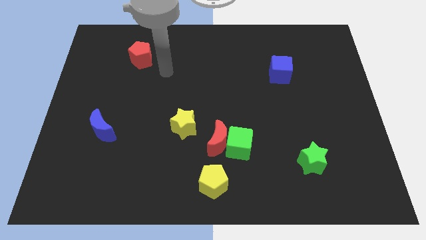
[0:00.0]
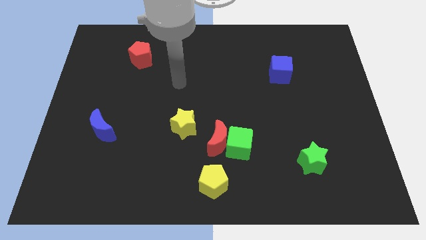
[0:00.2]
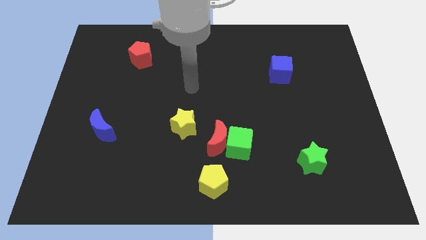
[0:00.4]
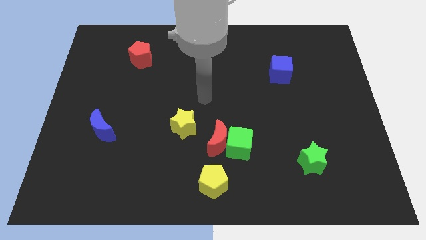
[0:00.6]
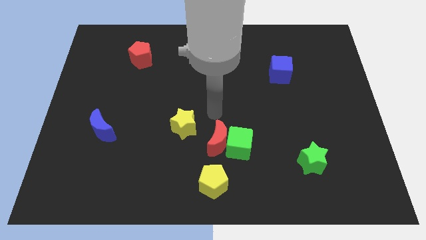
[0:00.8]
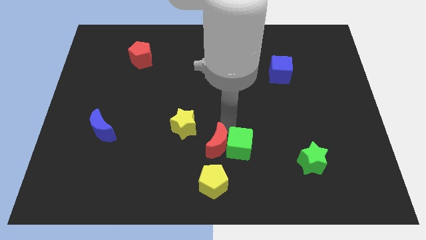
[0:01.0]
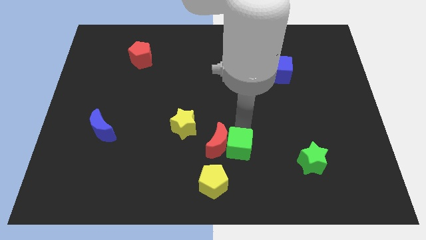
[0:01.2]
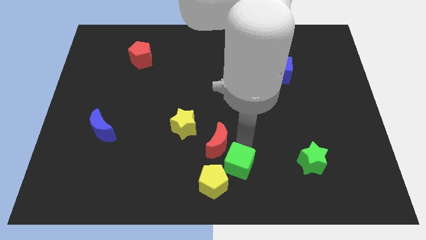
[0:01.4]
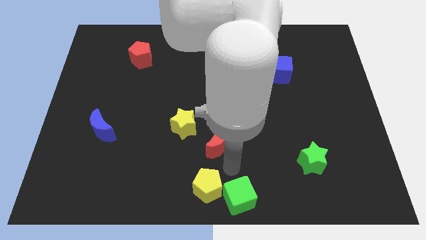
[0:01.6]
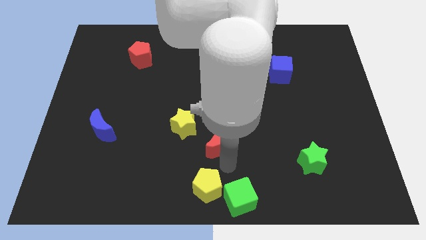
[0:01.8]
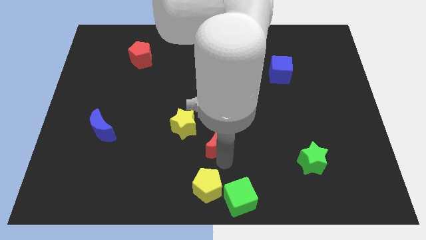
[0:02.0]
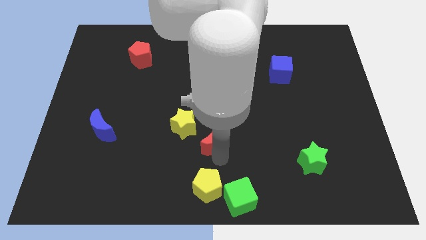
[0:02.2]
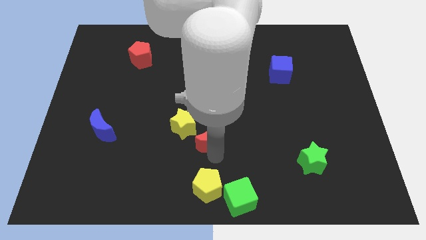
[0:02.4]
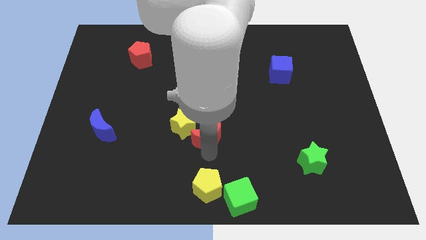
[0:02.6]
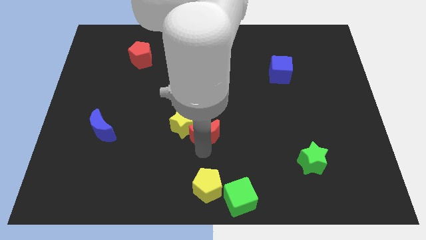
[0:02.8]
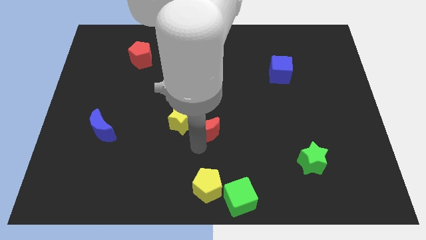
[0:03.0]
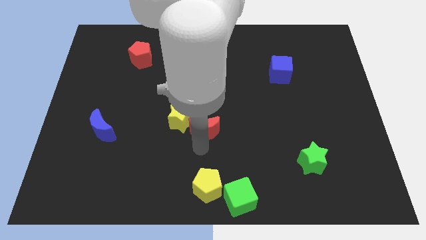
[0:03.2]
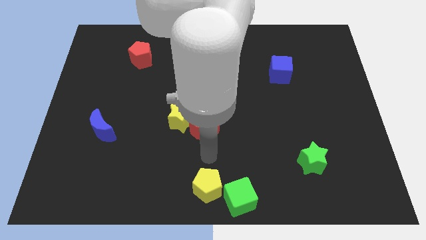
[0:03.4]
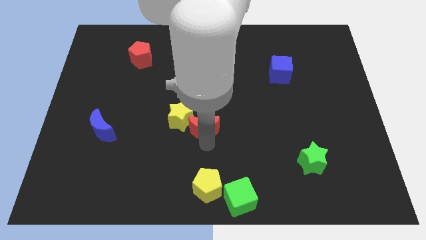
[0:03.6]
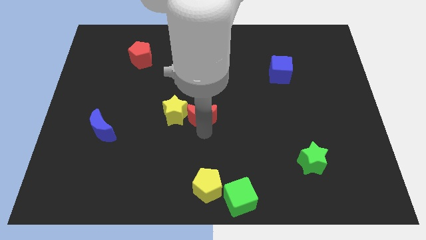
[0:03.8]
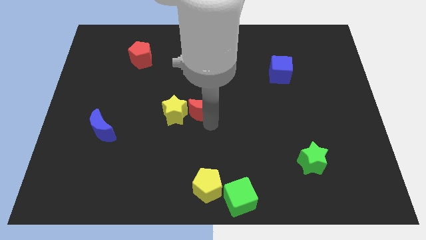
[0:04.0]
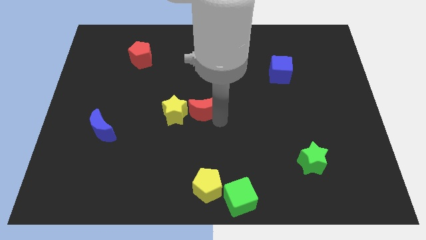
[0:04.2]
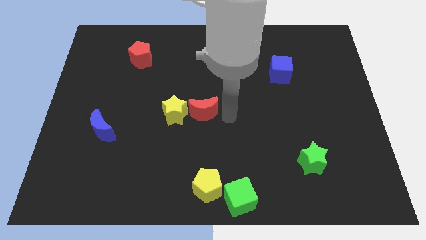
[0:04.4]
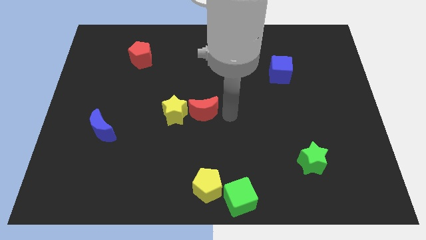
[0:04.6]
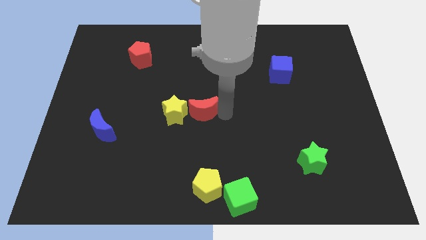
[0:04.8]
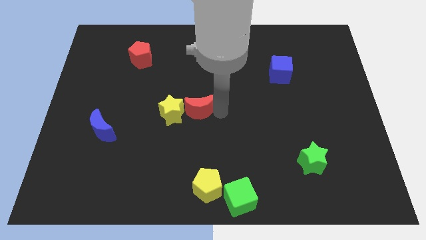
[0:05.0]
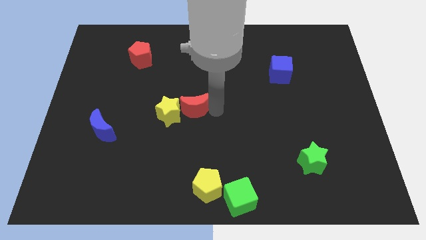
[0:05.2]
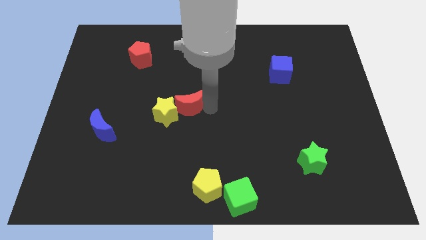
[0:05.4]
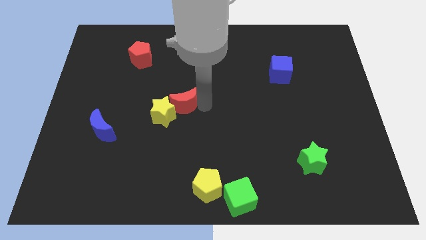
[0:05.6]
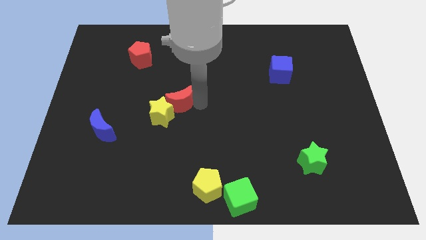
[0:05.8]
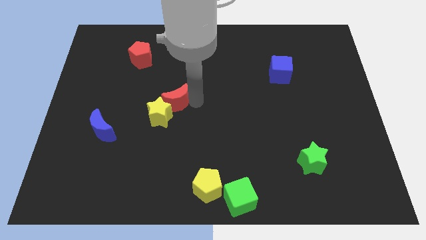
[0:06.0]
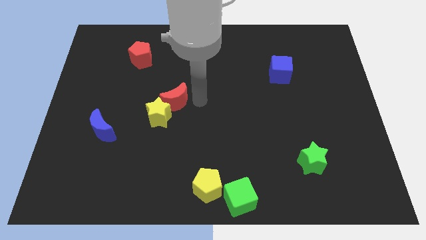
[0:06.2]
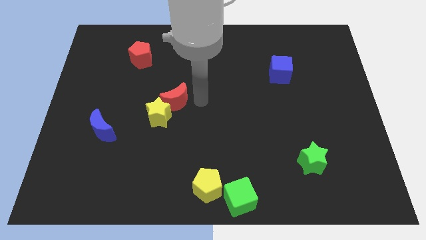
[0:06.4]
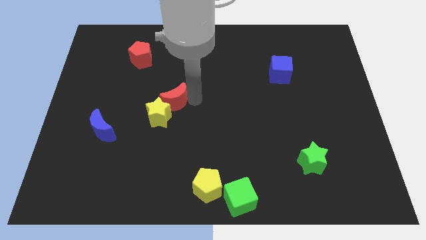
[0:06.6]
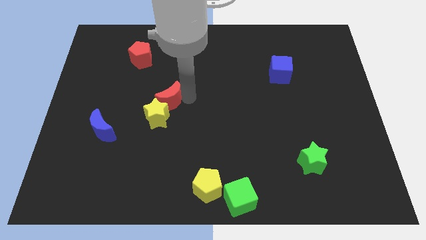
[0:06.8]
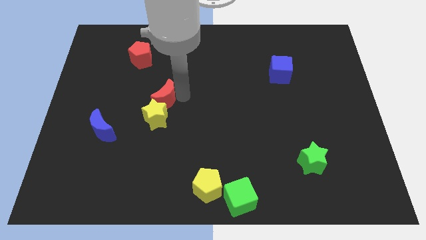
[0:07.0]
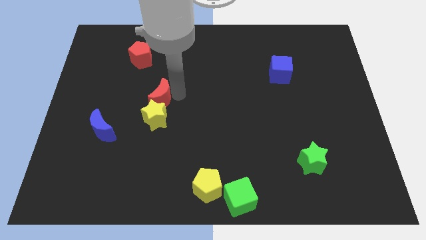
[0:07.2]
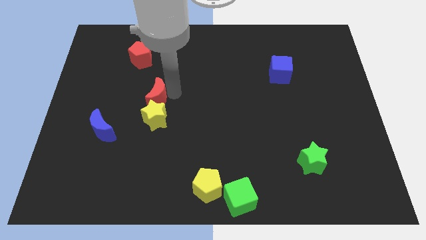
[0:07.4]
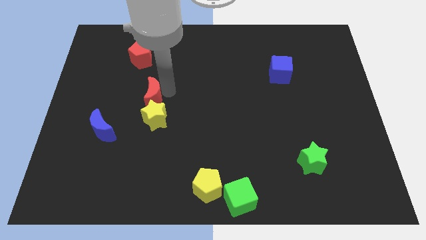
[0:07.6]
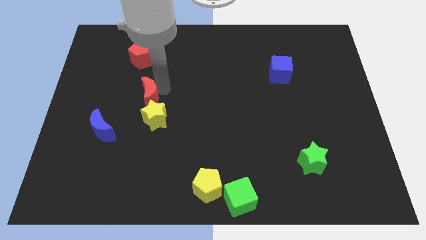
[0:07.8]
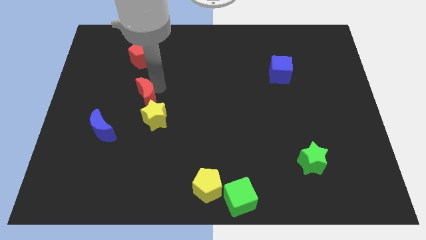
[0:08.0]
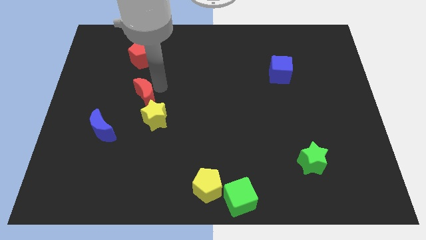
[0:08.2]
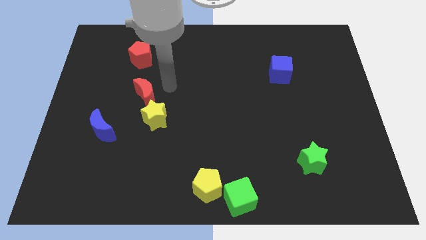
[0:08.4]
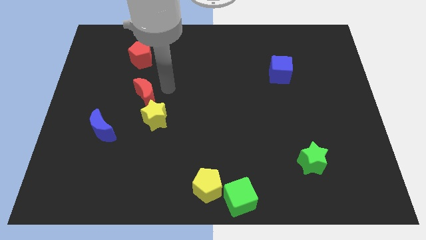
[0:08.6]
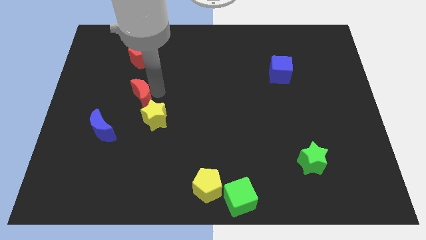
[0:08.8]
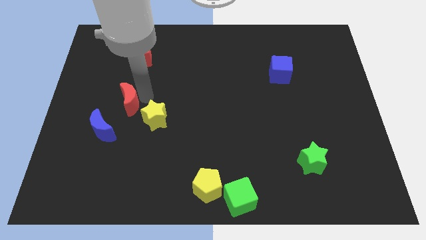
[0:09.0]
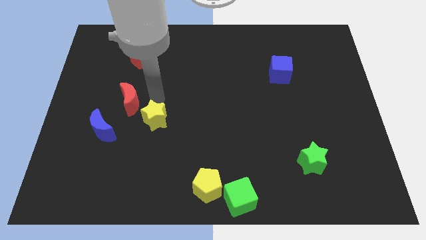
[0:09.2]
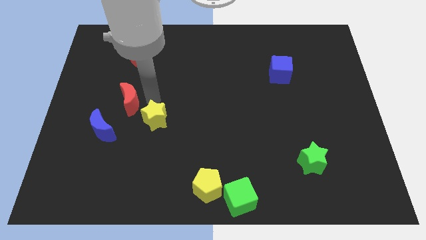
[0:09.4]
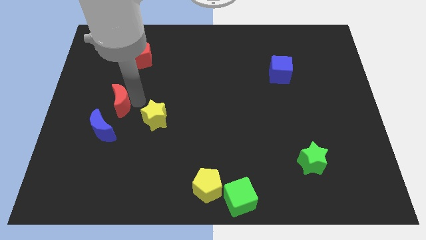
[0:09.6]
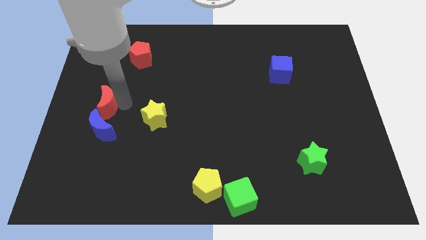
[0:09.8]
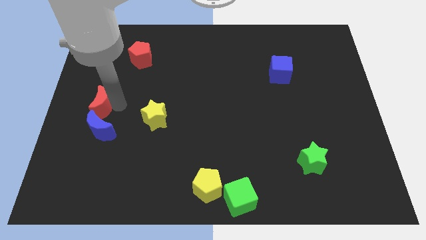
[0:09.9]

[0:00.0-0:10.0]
push the red moon to the center left

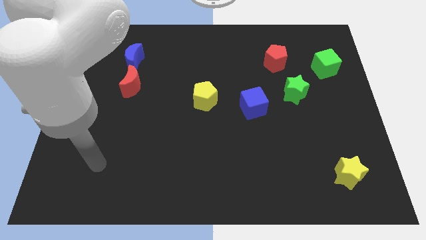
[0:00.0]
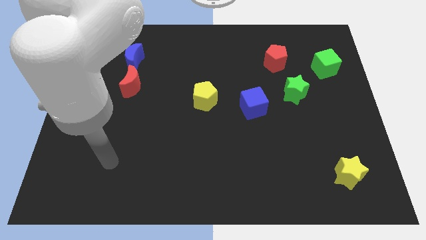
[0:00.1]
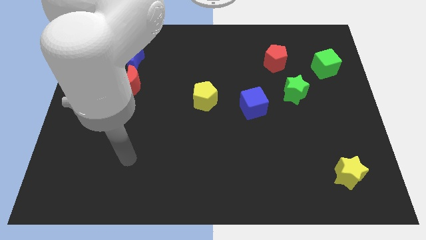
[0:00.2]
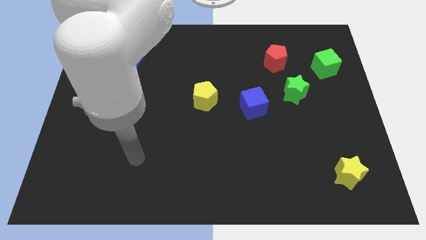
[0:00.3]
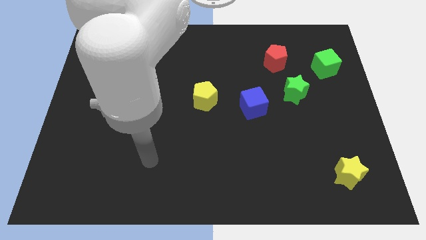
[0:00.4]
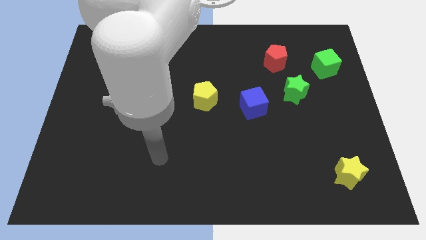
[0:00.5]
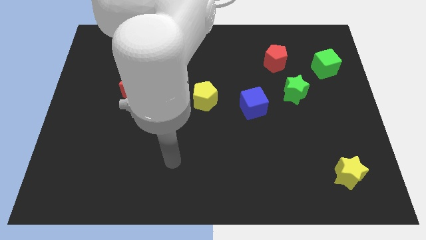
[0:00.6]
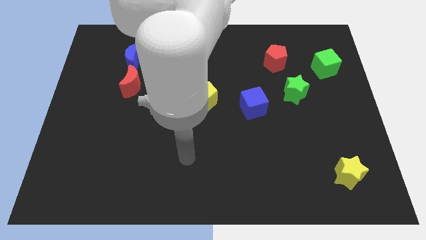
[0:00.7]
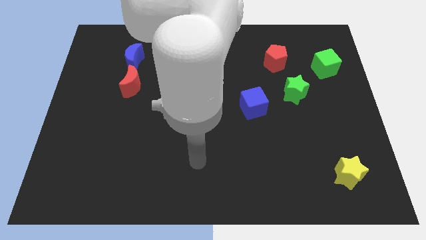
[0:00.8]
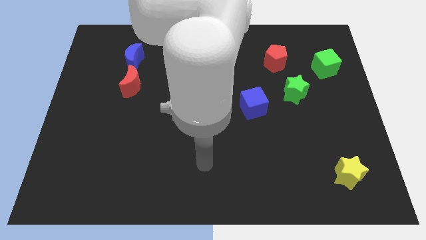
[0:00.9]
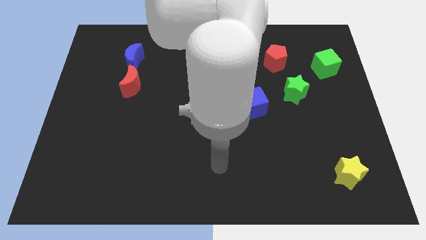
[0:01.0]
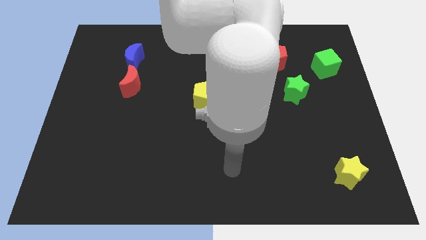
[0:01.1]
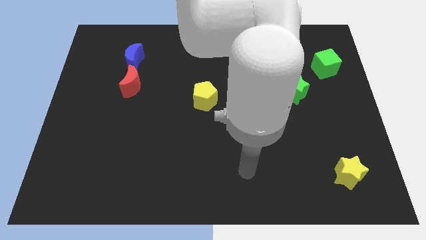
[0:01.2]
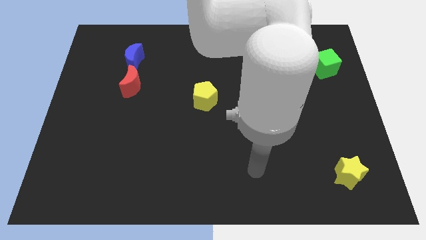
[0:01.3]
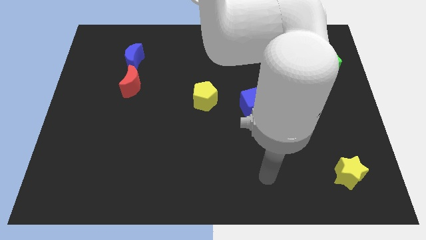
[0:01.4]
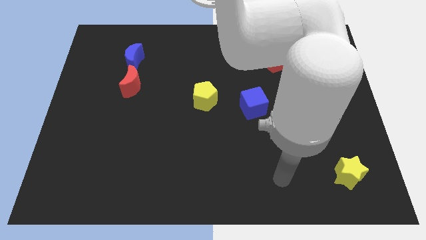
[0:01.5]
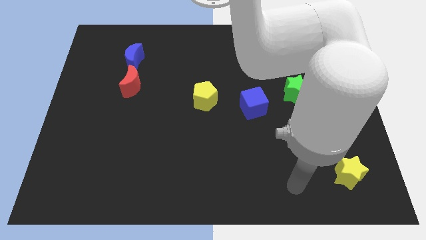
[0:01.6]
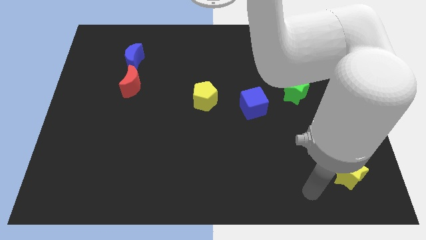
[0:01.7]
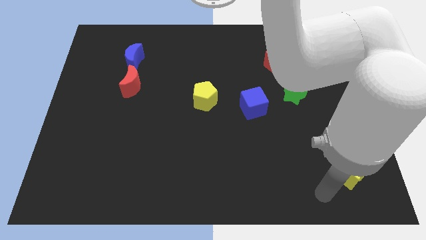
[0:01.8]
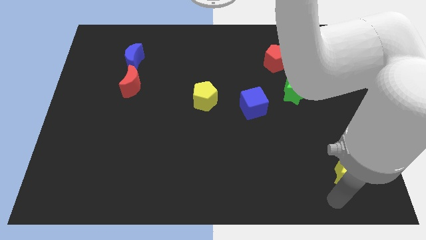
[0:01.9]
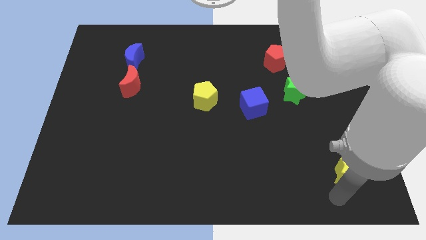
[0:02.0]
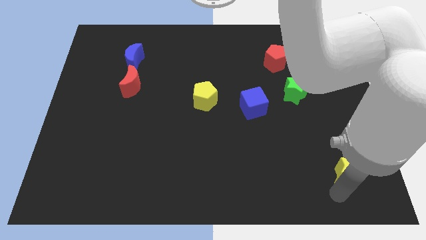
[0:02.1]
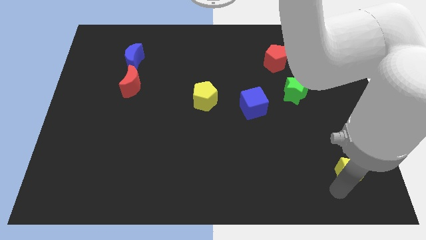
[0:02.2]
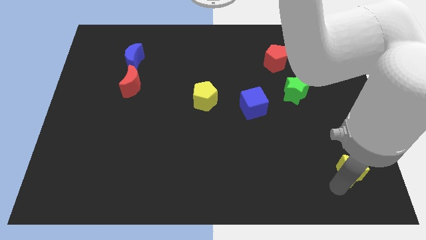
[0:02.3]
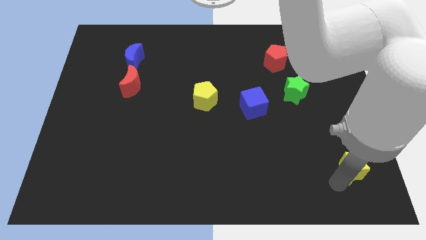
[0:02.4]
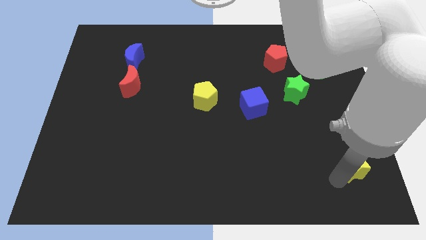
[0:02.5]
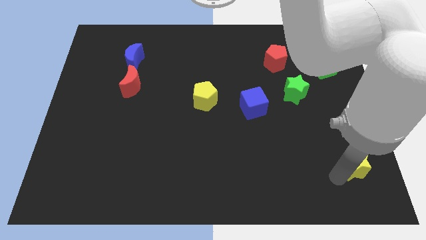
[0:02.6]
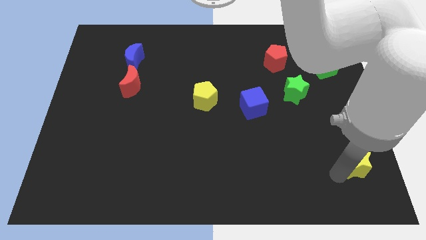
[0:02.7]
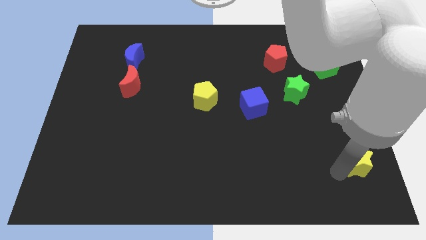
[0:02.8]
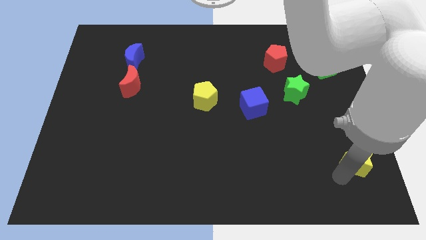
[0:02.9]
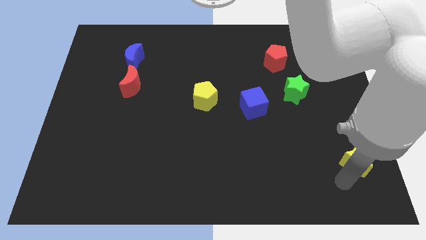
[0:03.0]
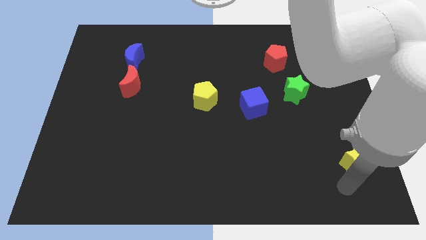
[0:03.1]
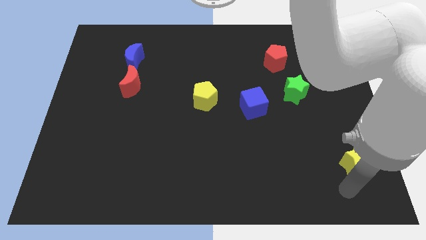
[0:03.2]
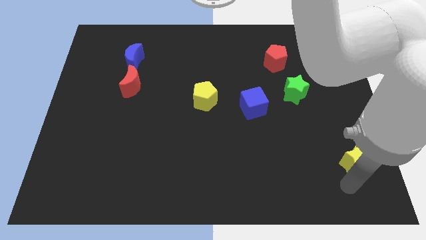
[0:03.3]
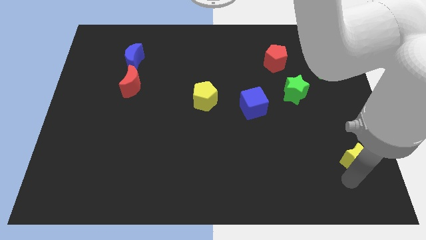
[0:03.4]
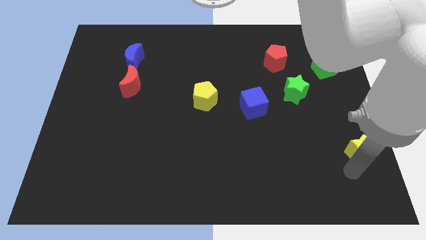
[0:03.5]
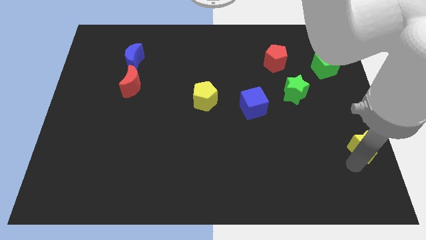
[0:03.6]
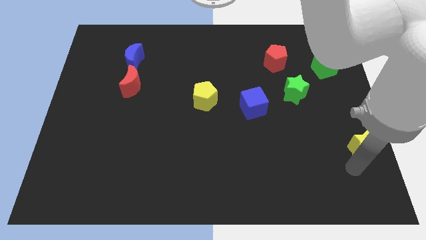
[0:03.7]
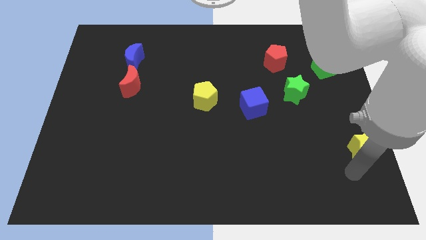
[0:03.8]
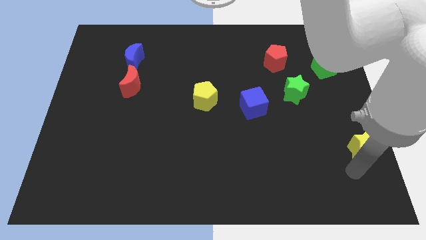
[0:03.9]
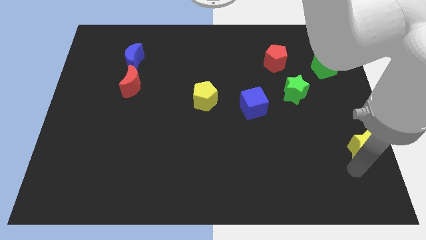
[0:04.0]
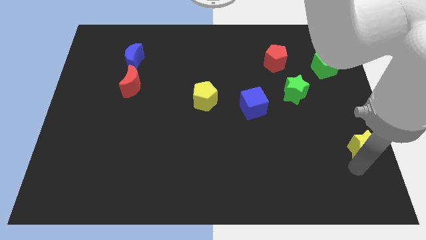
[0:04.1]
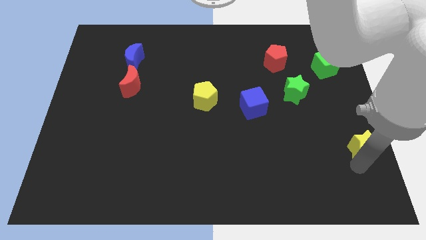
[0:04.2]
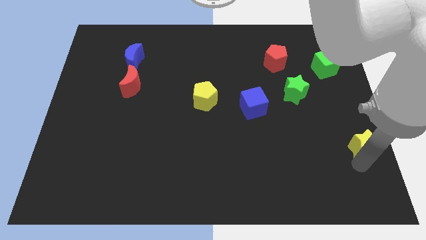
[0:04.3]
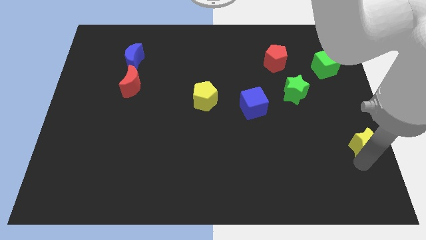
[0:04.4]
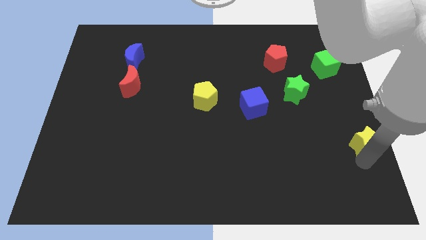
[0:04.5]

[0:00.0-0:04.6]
push the yellow star to the right side of the board
